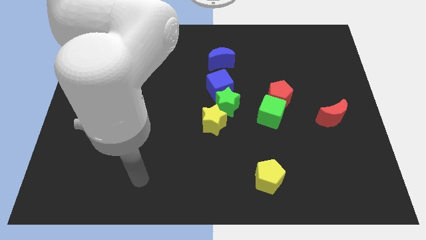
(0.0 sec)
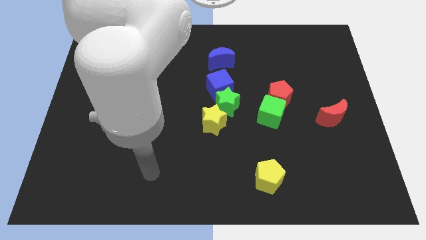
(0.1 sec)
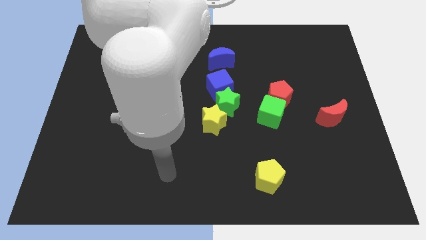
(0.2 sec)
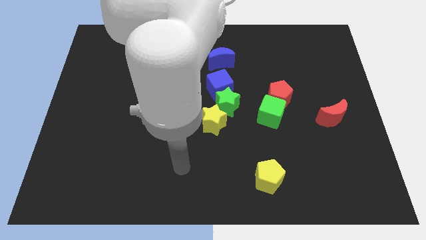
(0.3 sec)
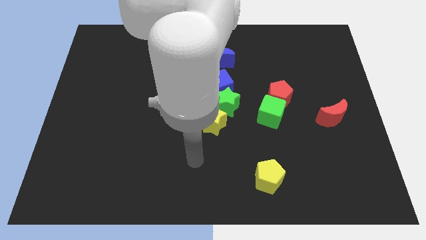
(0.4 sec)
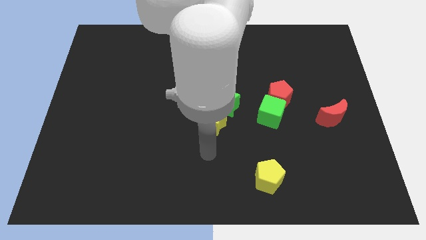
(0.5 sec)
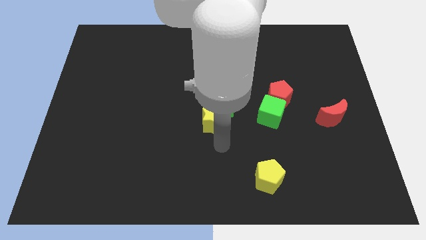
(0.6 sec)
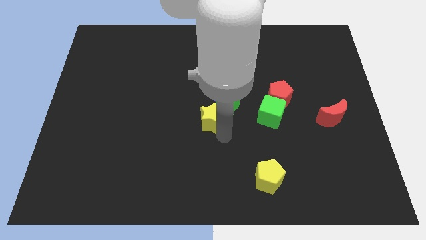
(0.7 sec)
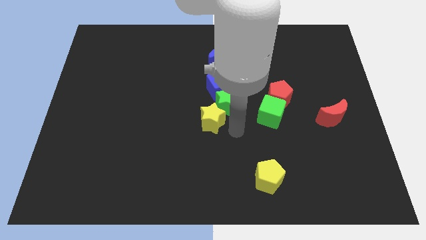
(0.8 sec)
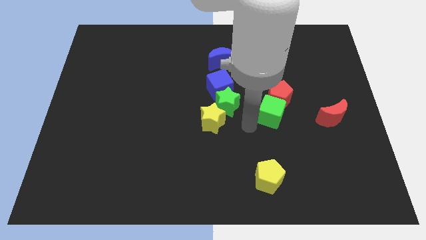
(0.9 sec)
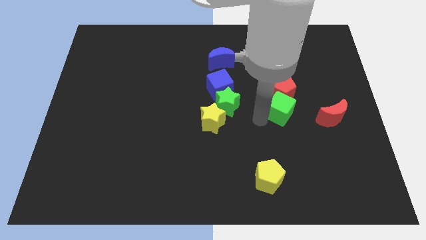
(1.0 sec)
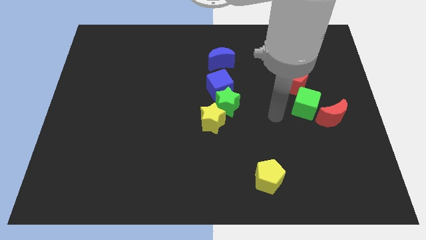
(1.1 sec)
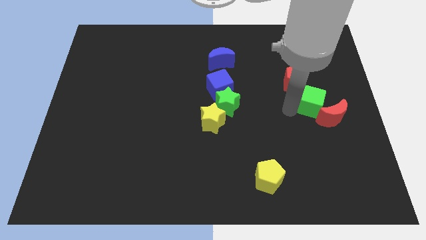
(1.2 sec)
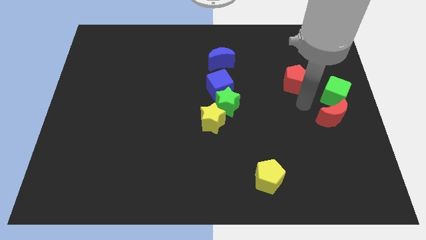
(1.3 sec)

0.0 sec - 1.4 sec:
pull the red pentagon apart from the green cube

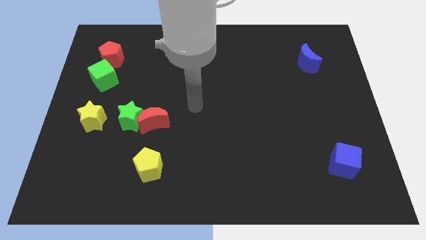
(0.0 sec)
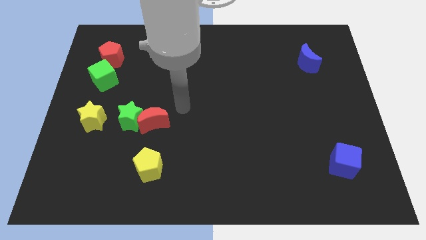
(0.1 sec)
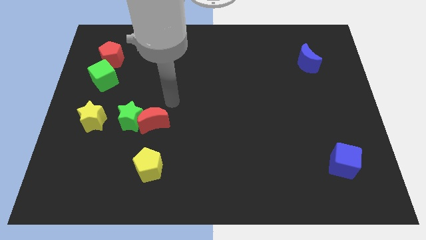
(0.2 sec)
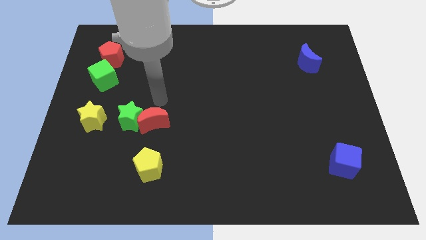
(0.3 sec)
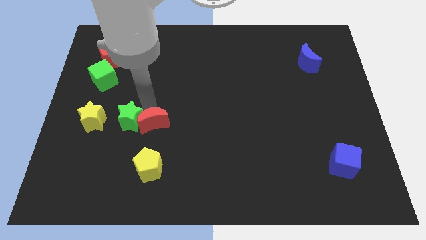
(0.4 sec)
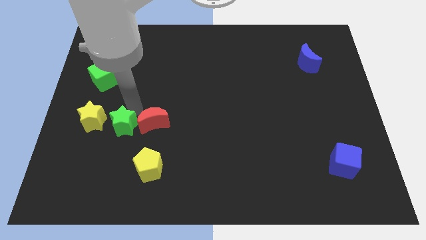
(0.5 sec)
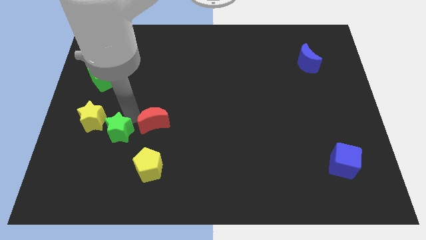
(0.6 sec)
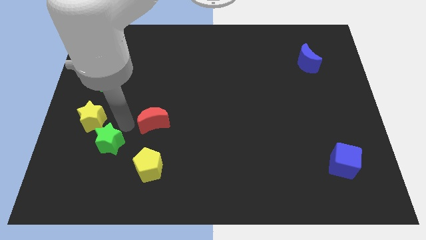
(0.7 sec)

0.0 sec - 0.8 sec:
separate the red moon from the green star

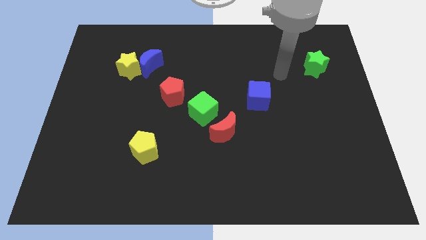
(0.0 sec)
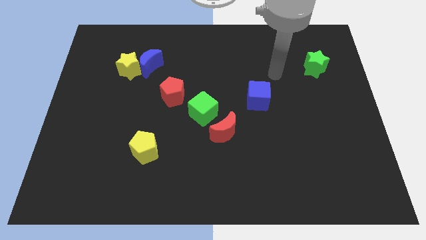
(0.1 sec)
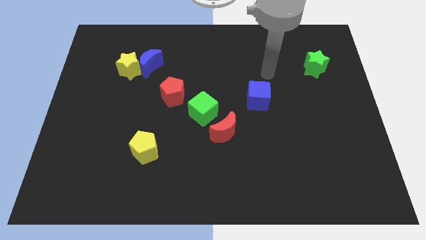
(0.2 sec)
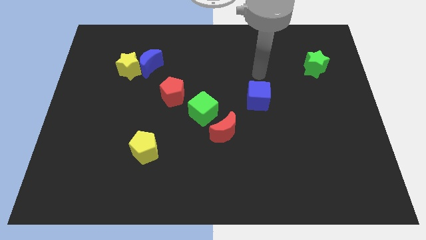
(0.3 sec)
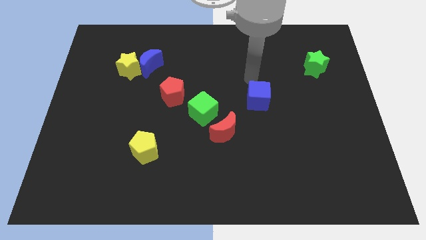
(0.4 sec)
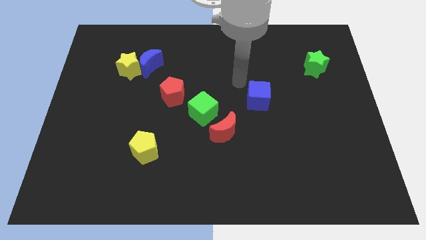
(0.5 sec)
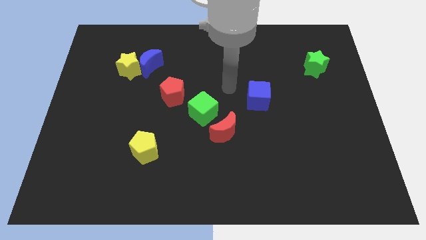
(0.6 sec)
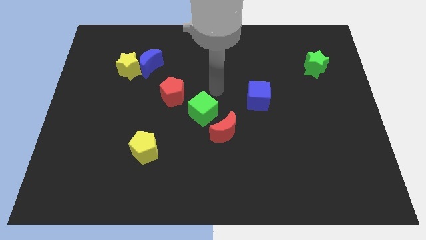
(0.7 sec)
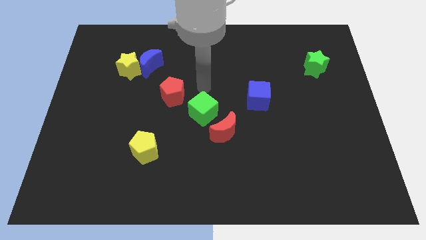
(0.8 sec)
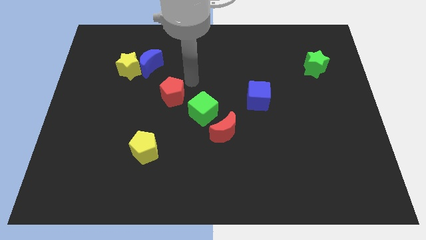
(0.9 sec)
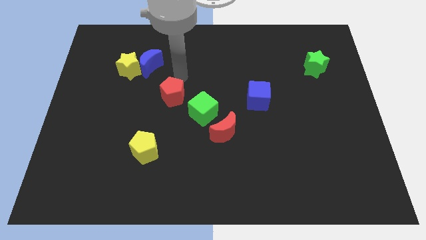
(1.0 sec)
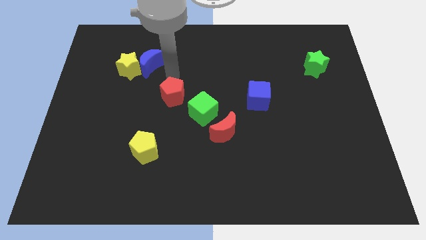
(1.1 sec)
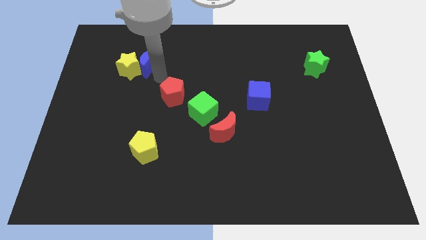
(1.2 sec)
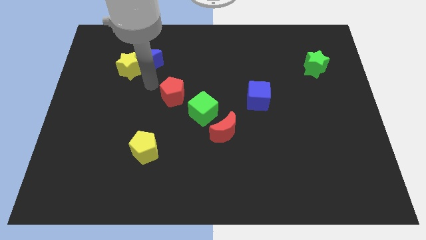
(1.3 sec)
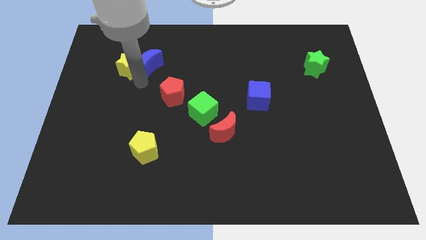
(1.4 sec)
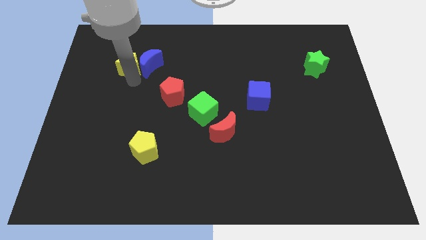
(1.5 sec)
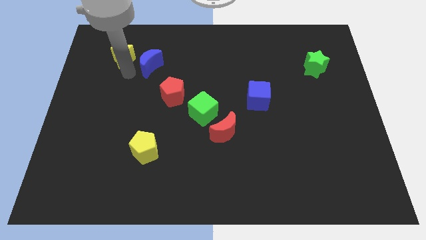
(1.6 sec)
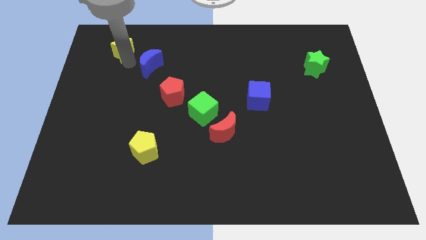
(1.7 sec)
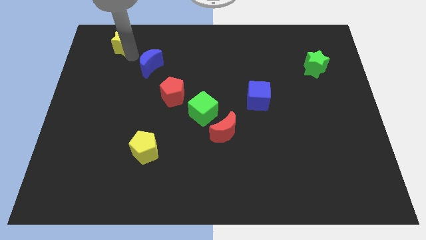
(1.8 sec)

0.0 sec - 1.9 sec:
separate the blue moon from the yellow star

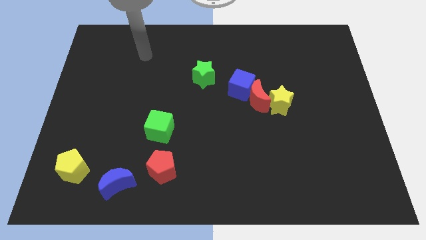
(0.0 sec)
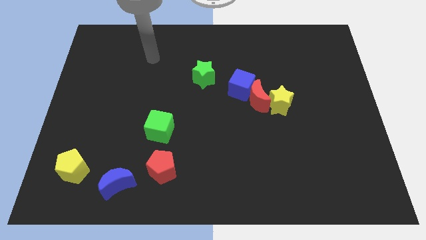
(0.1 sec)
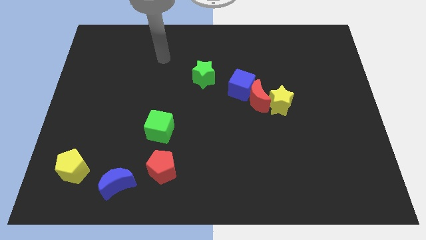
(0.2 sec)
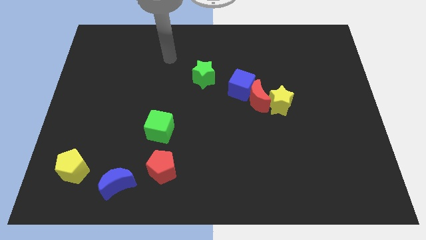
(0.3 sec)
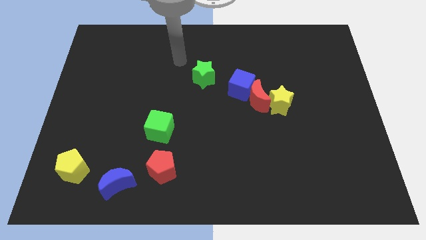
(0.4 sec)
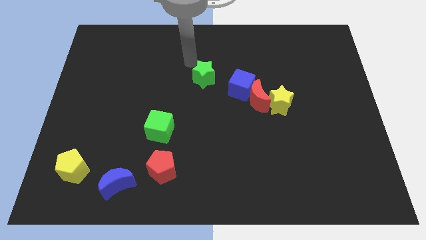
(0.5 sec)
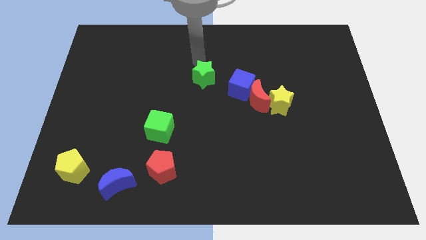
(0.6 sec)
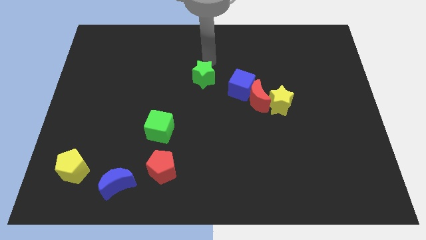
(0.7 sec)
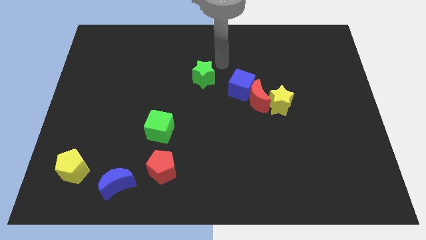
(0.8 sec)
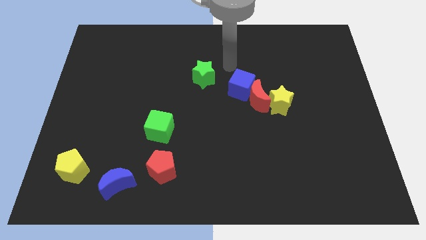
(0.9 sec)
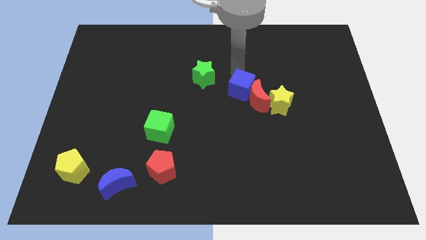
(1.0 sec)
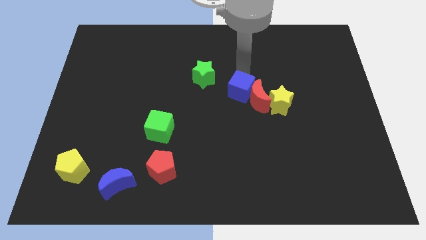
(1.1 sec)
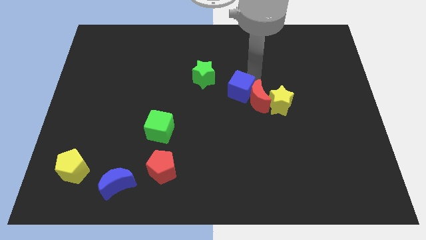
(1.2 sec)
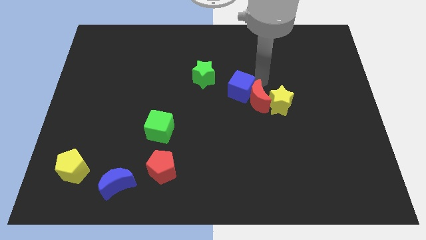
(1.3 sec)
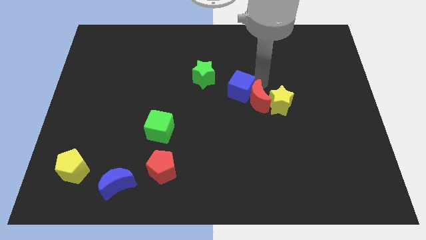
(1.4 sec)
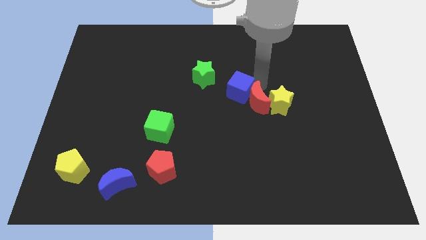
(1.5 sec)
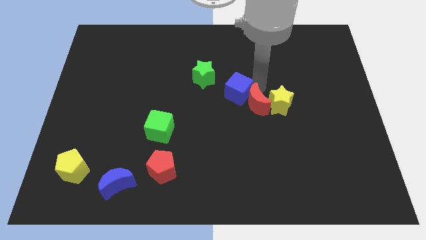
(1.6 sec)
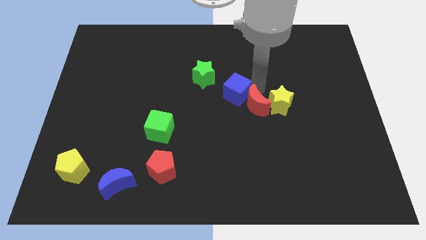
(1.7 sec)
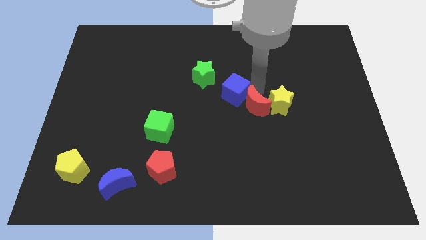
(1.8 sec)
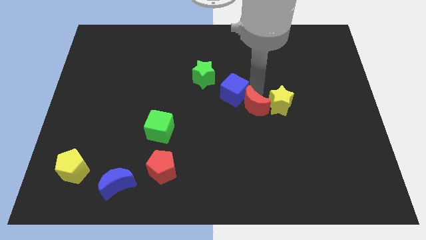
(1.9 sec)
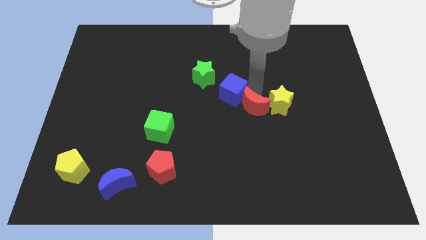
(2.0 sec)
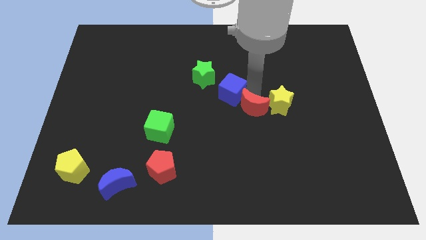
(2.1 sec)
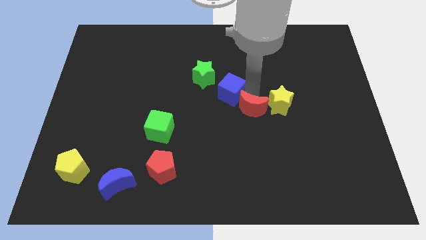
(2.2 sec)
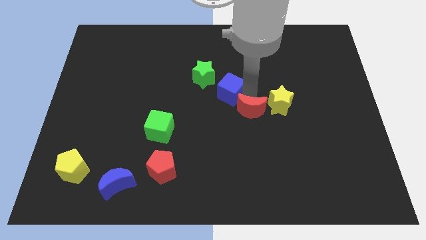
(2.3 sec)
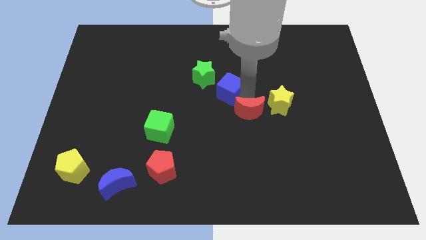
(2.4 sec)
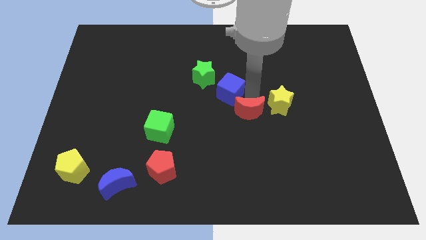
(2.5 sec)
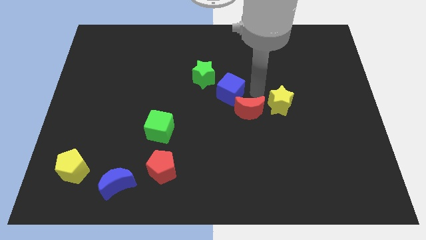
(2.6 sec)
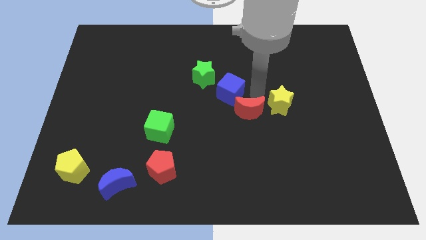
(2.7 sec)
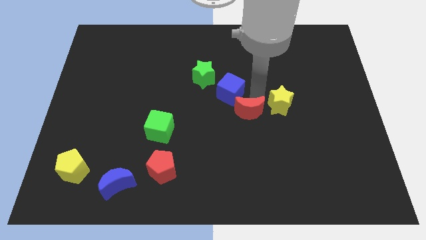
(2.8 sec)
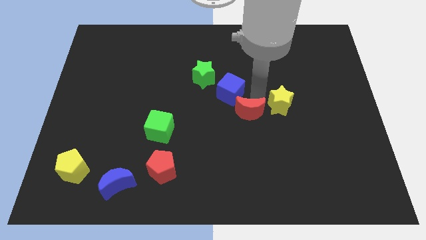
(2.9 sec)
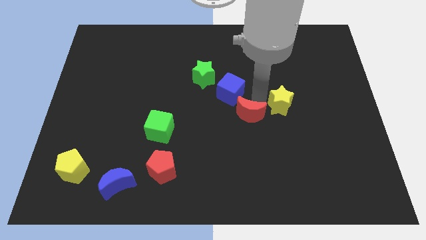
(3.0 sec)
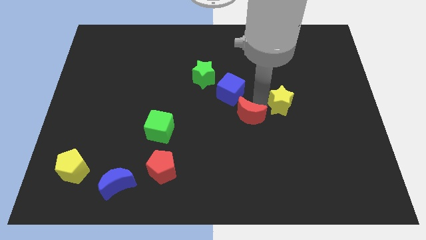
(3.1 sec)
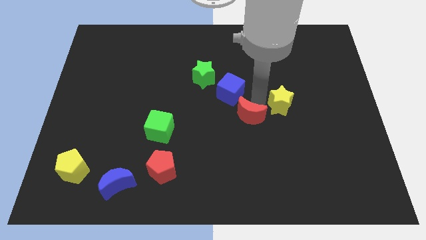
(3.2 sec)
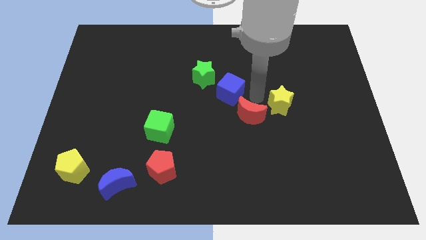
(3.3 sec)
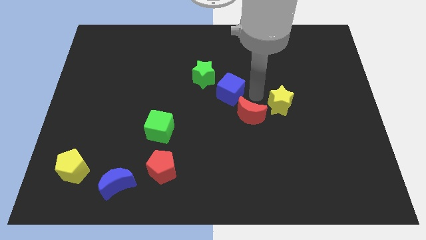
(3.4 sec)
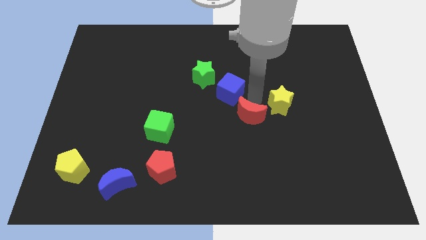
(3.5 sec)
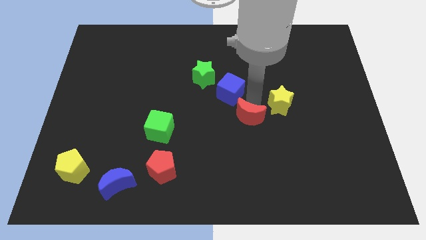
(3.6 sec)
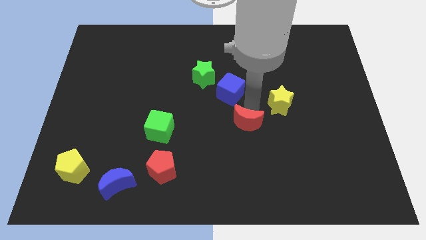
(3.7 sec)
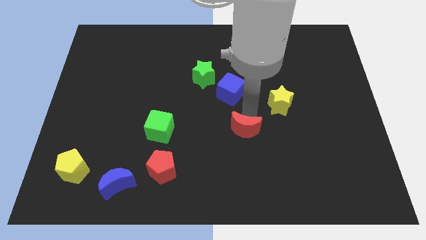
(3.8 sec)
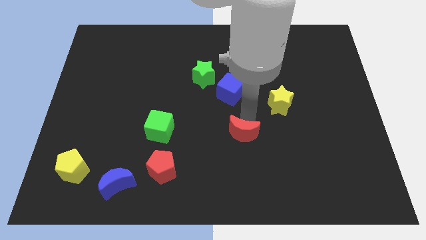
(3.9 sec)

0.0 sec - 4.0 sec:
pull the red moon apart from the yellow star and blue cube

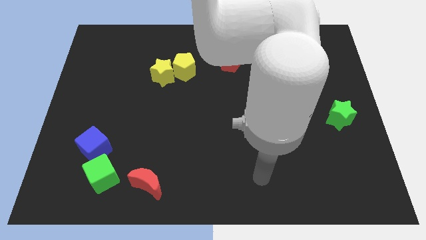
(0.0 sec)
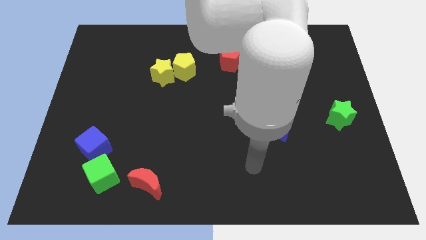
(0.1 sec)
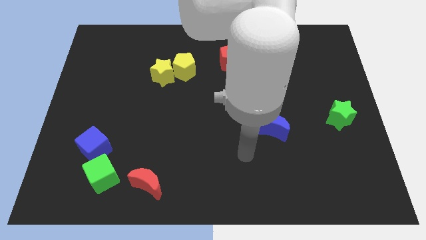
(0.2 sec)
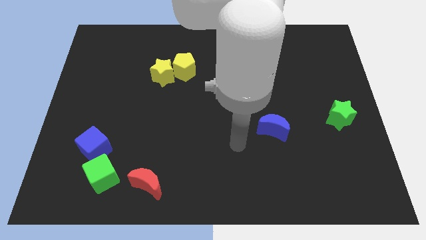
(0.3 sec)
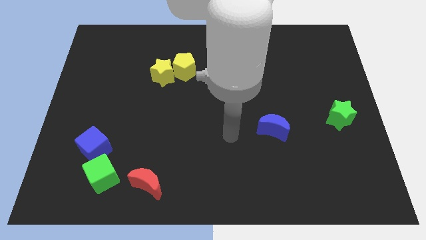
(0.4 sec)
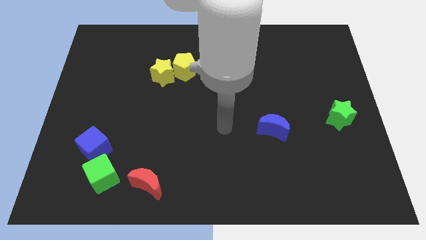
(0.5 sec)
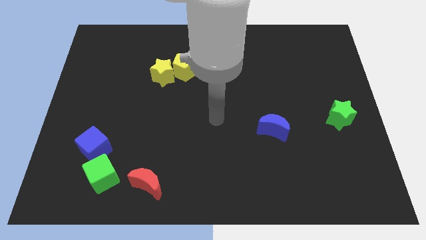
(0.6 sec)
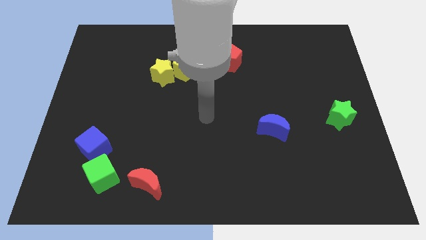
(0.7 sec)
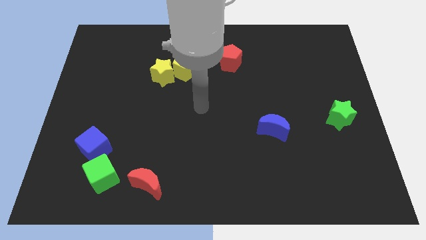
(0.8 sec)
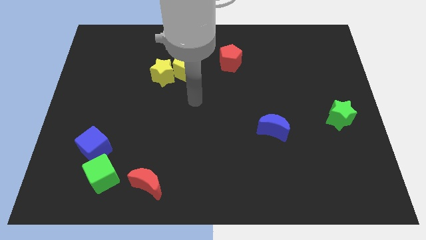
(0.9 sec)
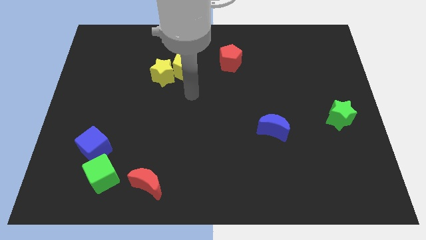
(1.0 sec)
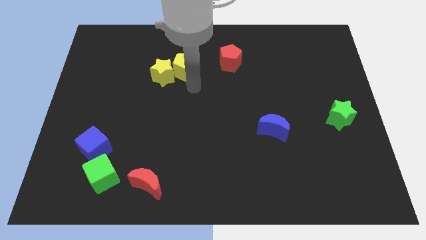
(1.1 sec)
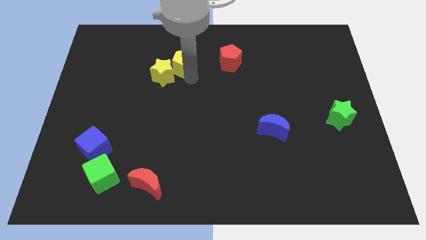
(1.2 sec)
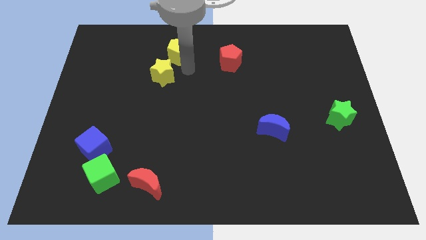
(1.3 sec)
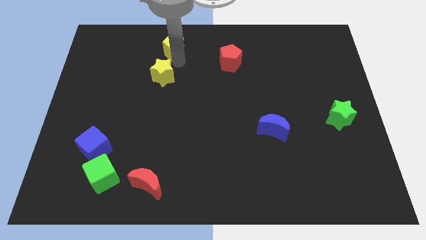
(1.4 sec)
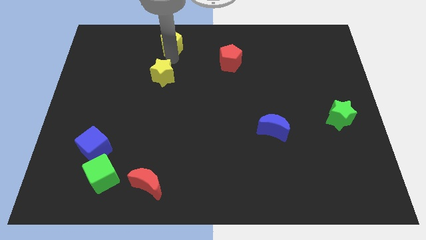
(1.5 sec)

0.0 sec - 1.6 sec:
move the yellow star away from the yellow pentagon
